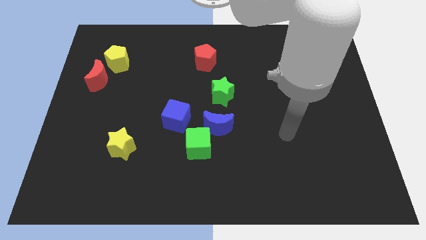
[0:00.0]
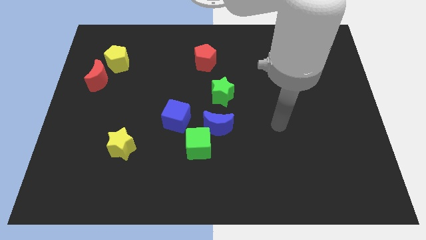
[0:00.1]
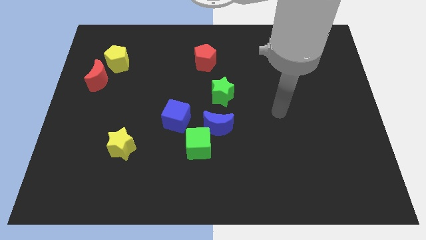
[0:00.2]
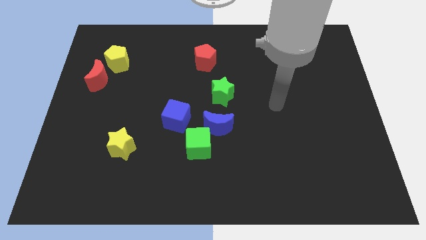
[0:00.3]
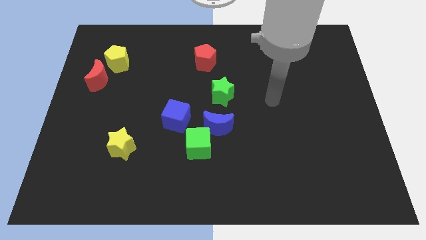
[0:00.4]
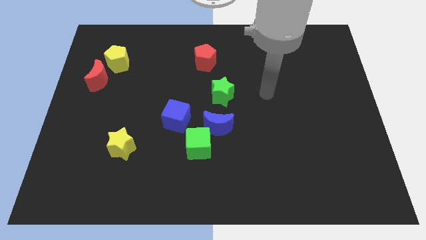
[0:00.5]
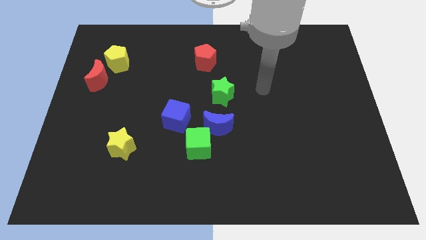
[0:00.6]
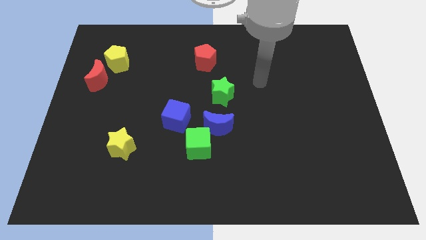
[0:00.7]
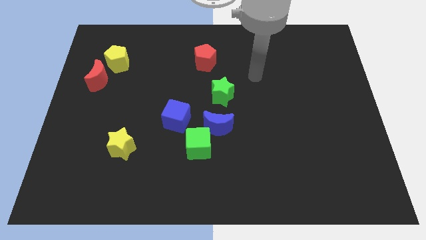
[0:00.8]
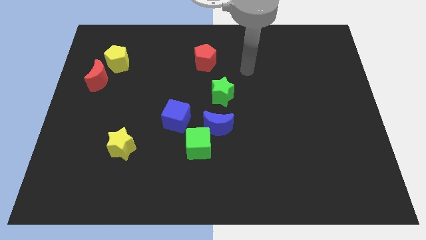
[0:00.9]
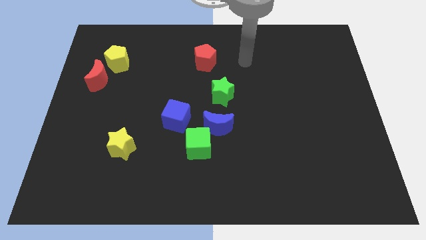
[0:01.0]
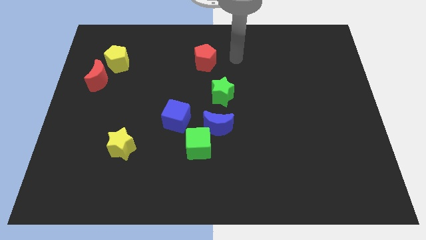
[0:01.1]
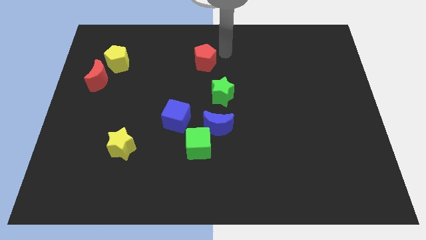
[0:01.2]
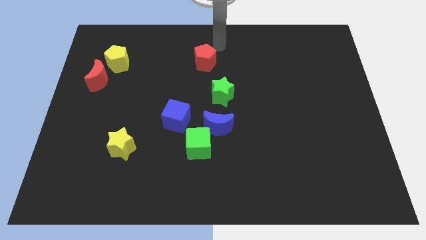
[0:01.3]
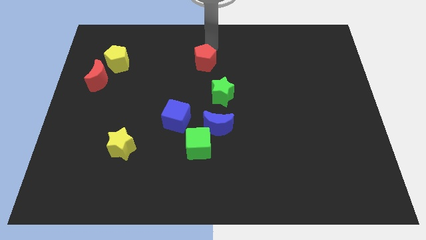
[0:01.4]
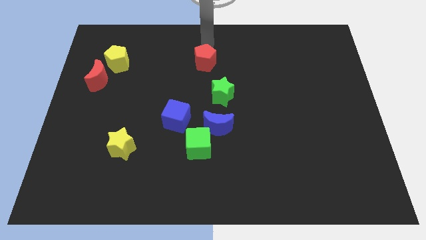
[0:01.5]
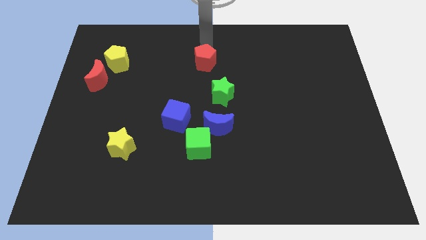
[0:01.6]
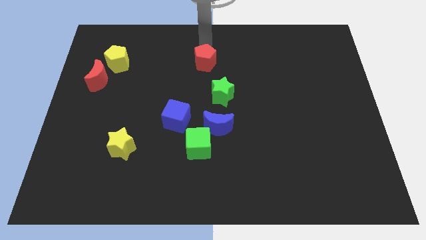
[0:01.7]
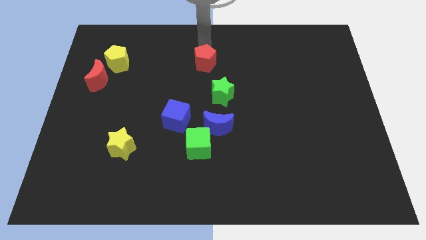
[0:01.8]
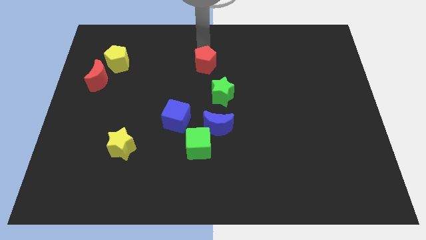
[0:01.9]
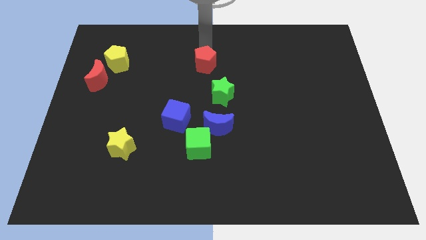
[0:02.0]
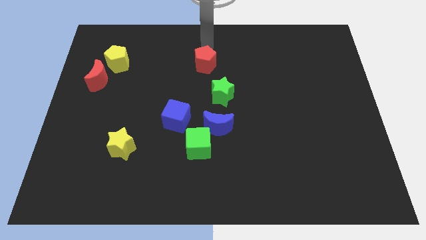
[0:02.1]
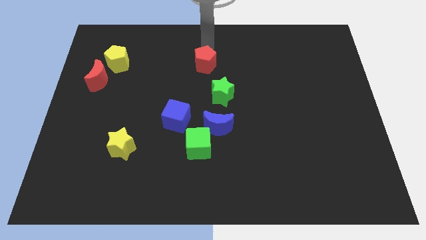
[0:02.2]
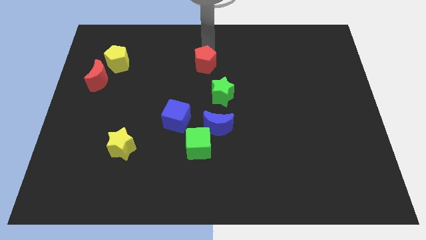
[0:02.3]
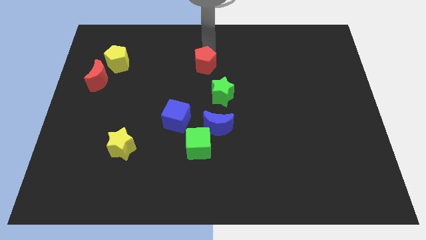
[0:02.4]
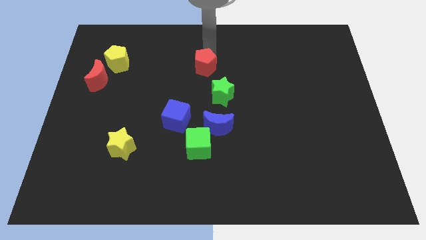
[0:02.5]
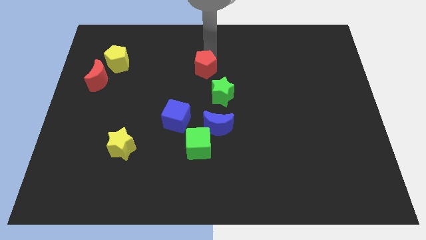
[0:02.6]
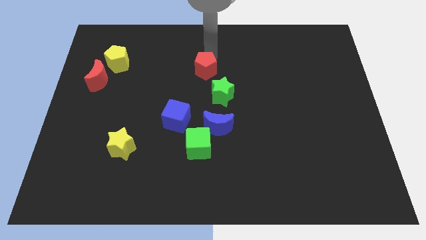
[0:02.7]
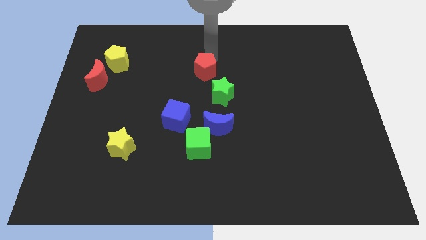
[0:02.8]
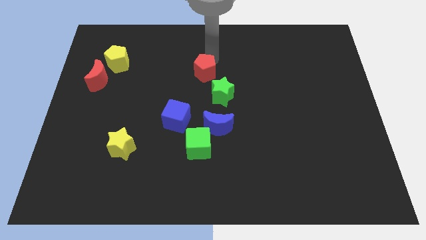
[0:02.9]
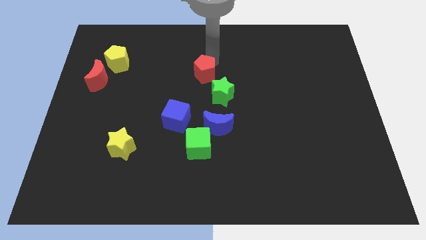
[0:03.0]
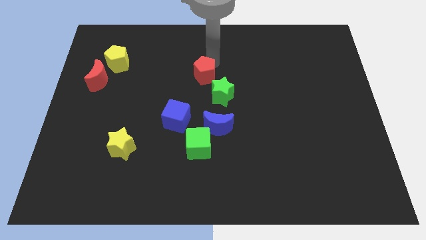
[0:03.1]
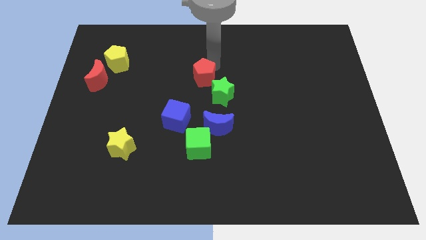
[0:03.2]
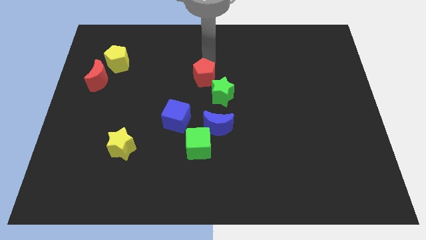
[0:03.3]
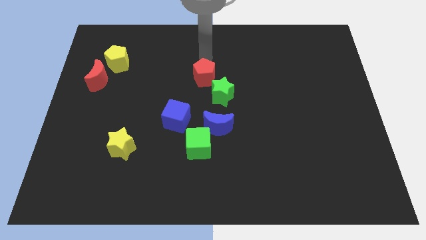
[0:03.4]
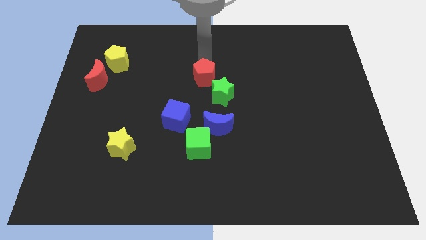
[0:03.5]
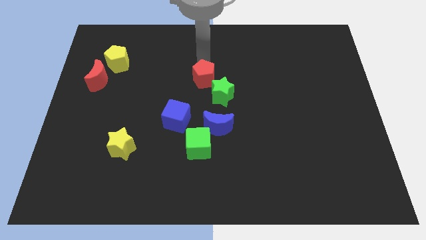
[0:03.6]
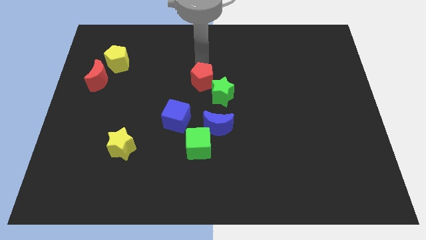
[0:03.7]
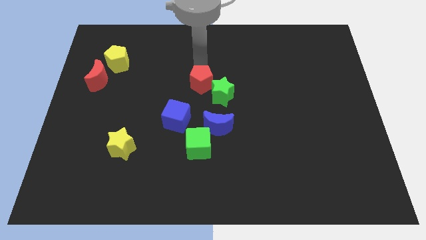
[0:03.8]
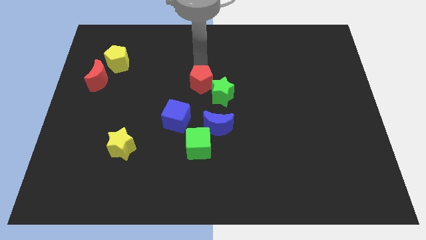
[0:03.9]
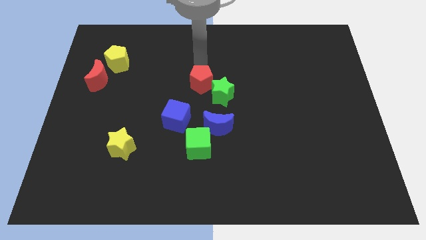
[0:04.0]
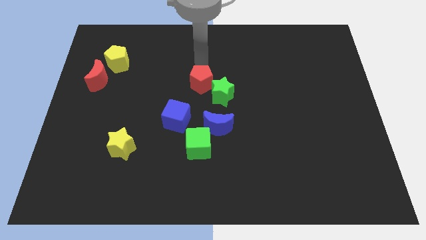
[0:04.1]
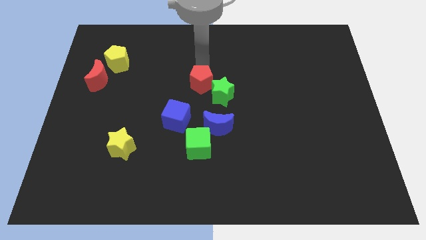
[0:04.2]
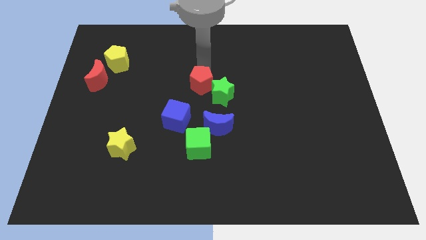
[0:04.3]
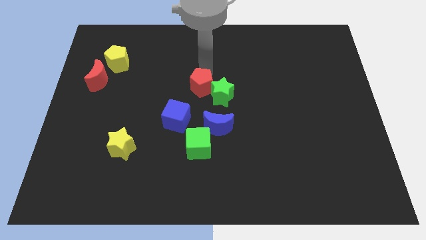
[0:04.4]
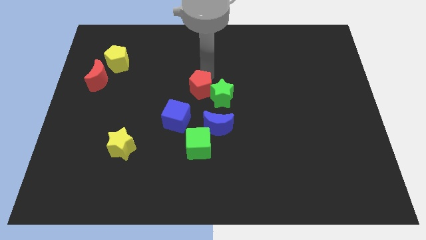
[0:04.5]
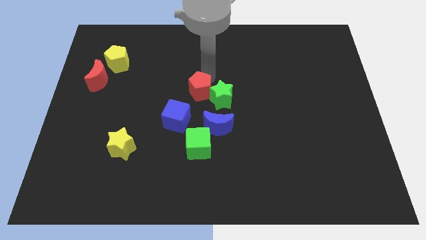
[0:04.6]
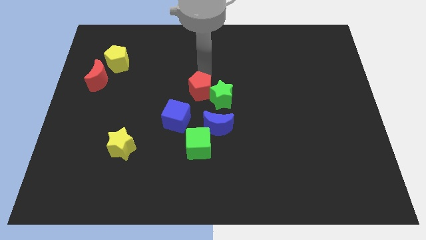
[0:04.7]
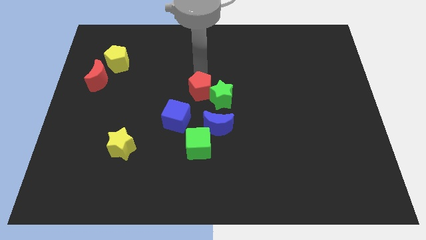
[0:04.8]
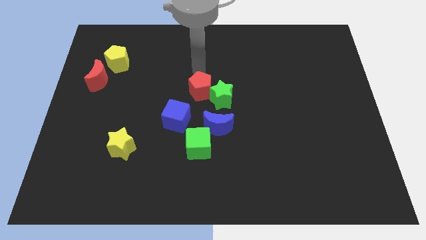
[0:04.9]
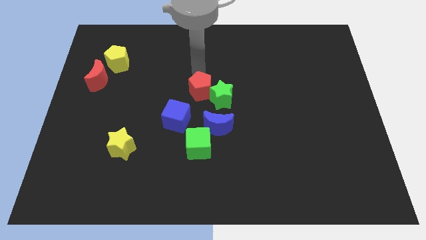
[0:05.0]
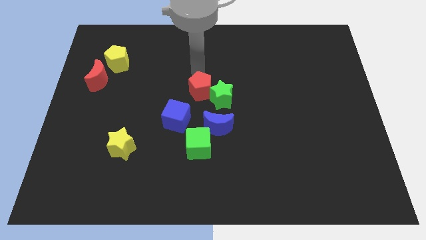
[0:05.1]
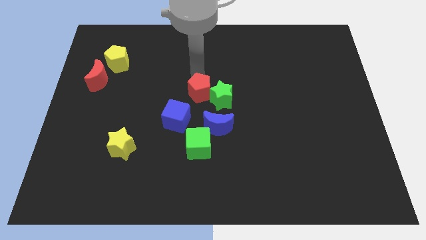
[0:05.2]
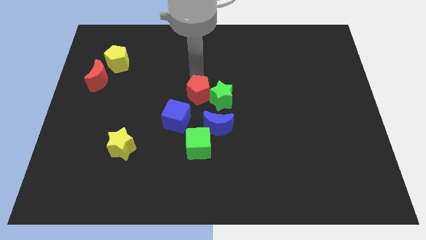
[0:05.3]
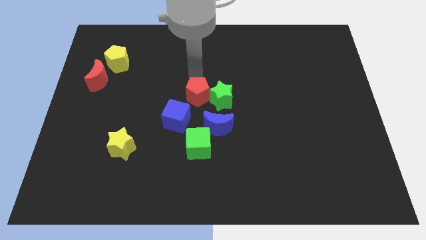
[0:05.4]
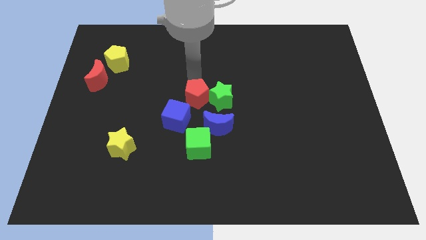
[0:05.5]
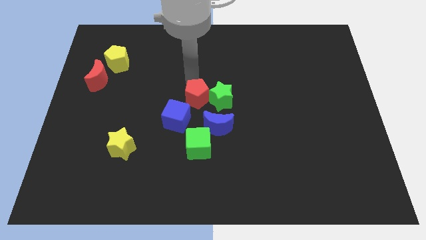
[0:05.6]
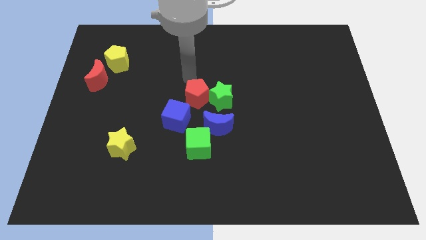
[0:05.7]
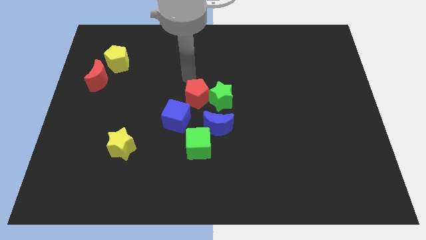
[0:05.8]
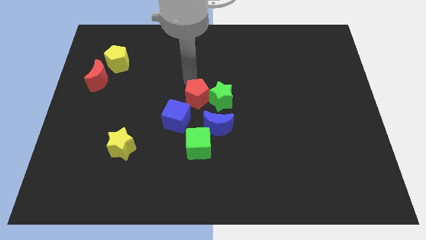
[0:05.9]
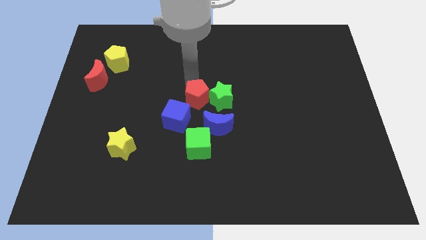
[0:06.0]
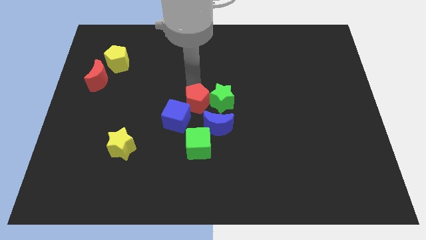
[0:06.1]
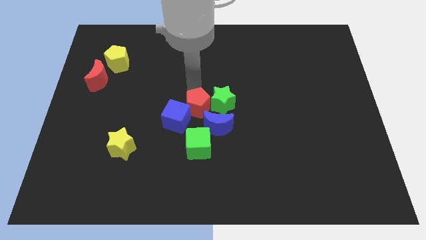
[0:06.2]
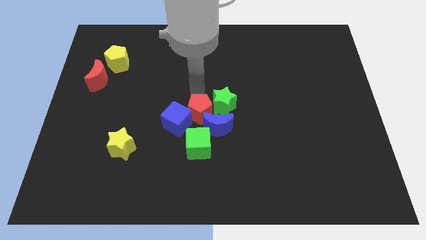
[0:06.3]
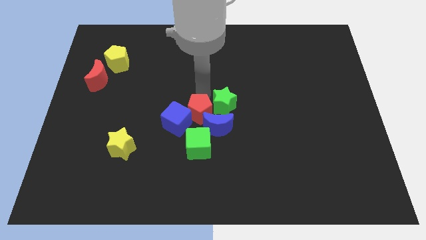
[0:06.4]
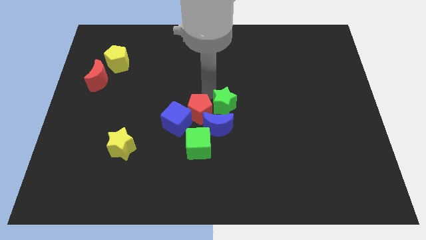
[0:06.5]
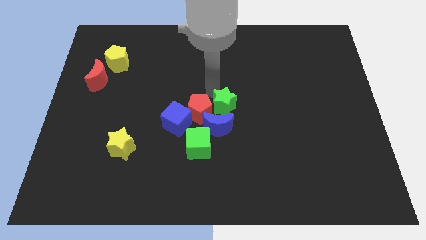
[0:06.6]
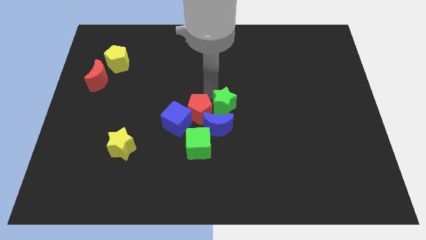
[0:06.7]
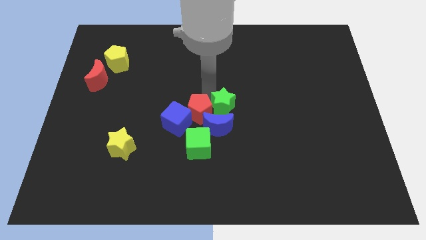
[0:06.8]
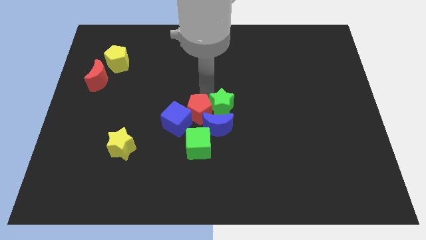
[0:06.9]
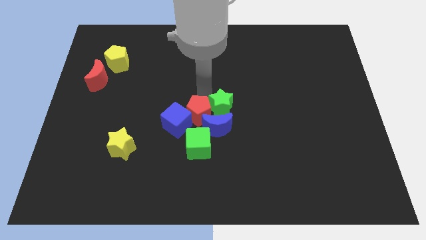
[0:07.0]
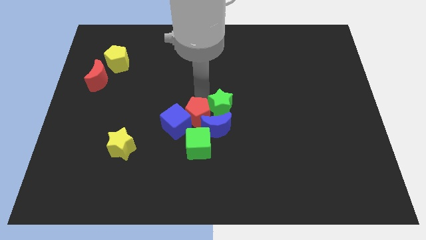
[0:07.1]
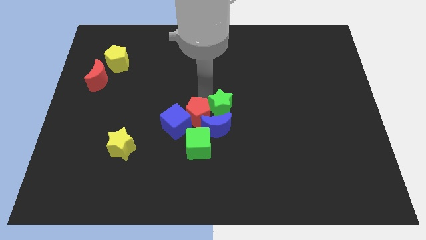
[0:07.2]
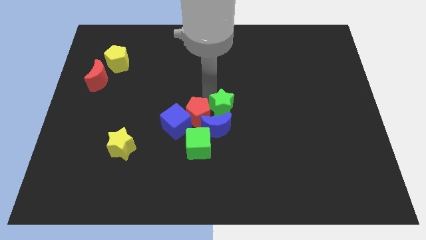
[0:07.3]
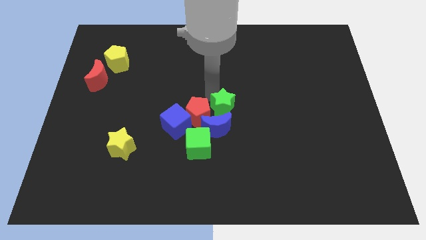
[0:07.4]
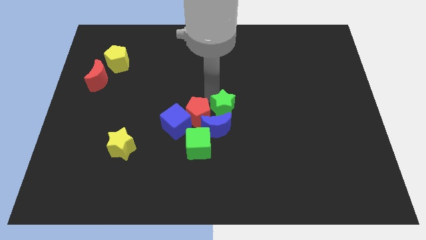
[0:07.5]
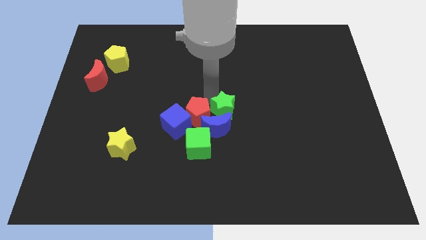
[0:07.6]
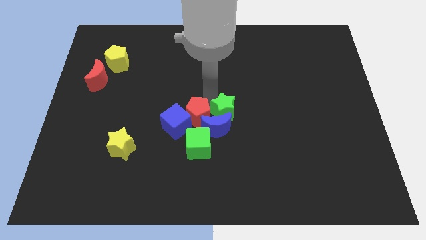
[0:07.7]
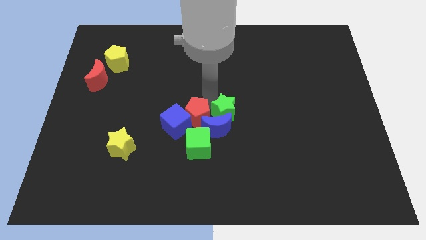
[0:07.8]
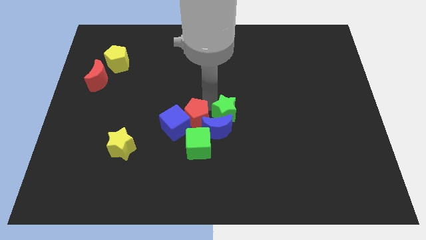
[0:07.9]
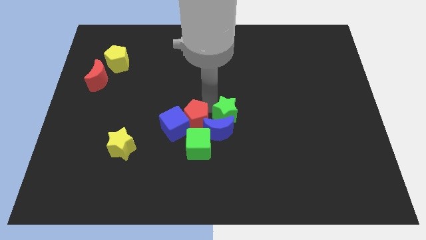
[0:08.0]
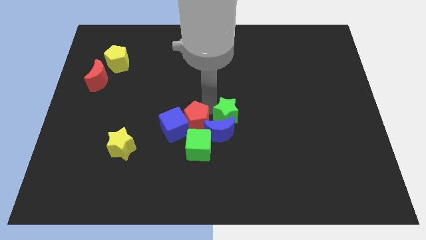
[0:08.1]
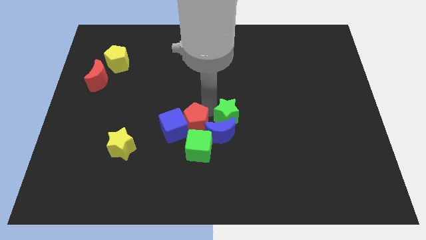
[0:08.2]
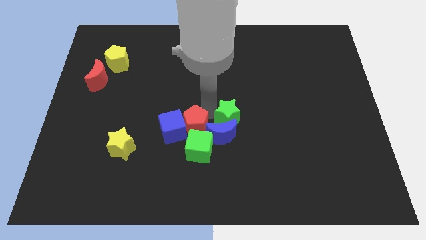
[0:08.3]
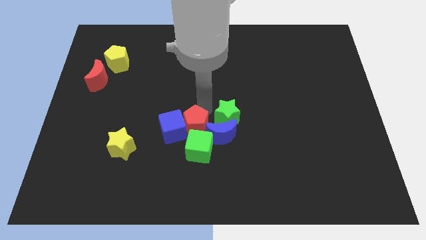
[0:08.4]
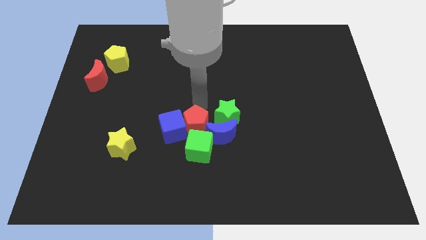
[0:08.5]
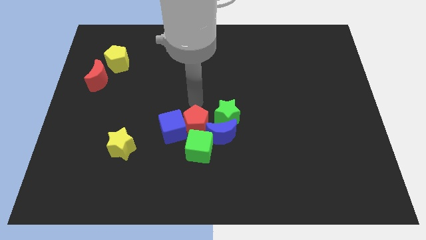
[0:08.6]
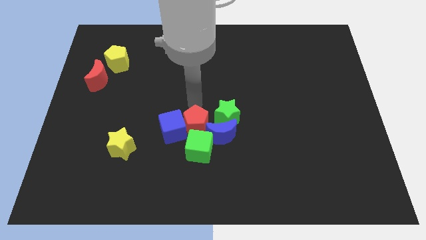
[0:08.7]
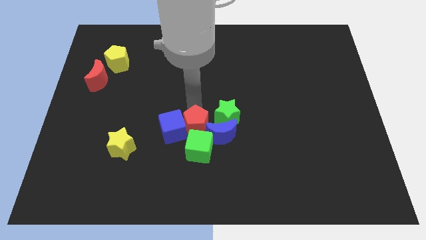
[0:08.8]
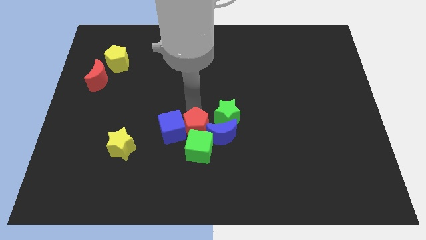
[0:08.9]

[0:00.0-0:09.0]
put the red pentagon close to the green cube
